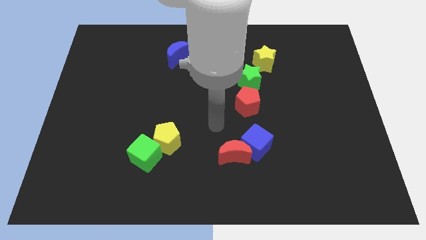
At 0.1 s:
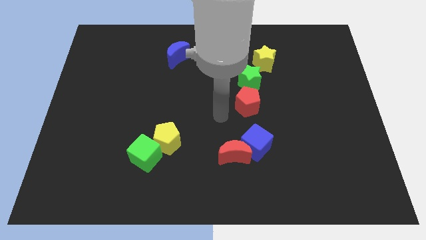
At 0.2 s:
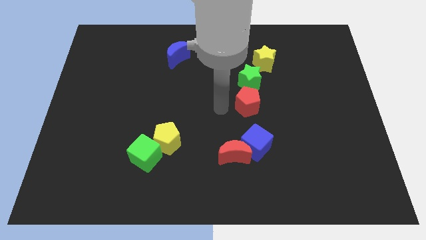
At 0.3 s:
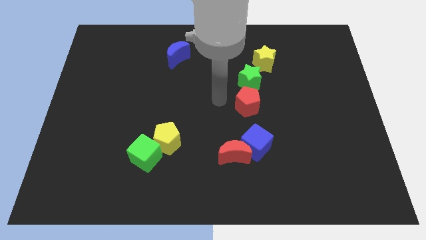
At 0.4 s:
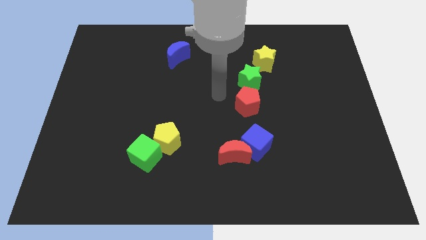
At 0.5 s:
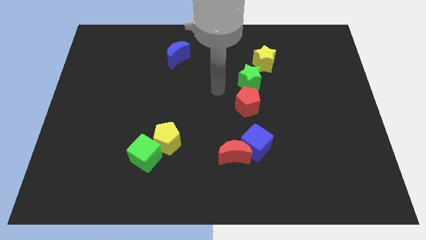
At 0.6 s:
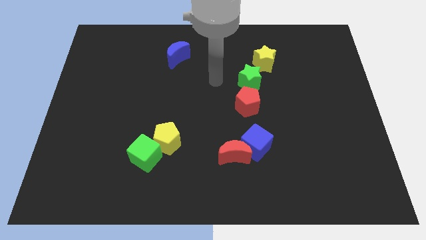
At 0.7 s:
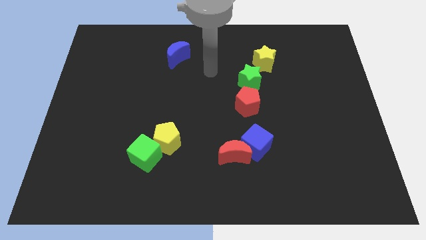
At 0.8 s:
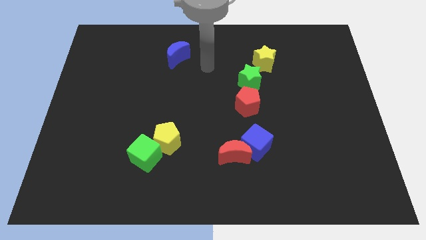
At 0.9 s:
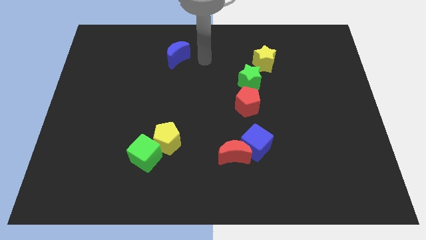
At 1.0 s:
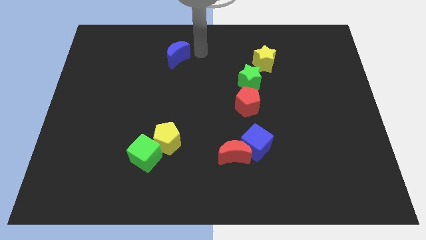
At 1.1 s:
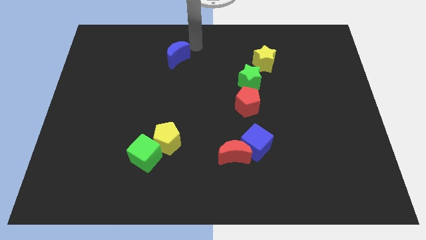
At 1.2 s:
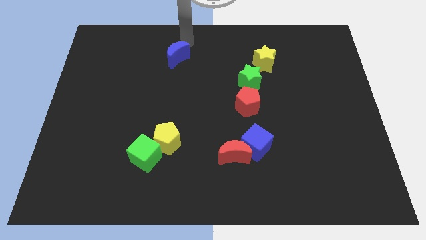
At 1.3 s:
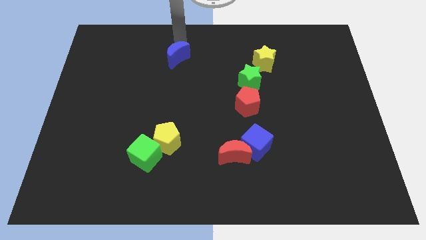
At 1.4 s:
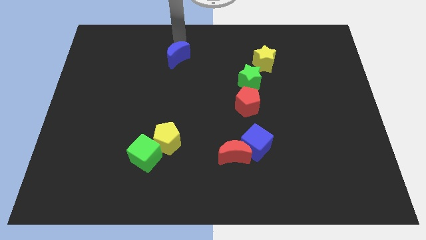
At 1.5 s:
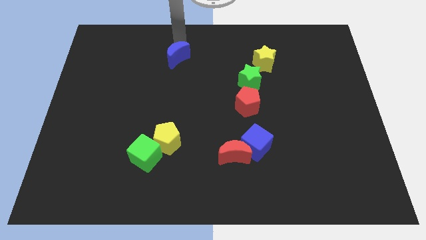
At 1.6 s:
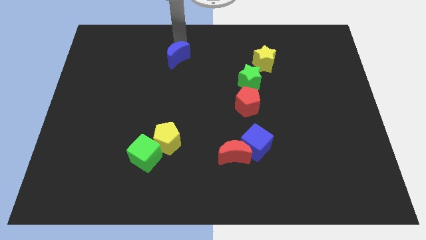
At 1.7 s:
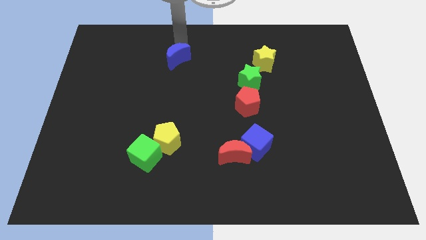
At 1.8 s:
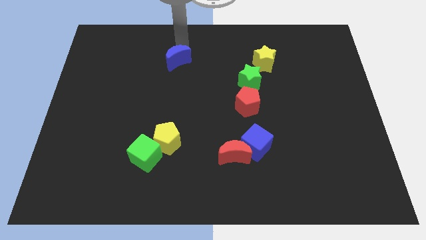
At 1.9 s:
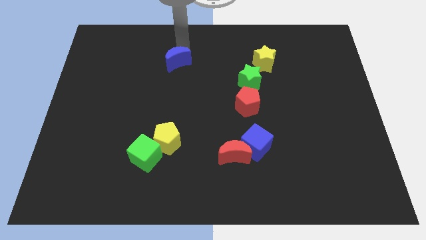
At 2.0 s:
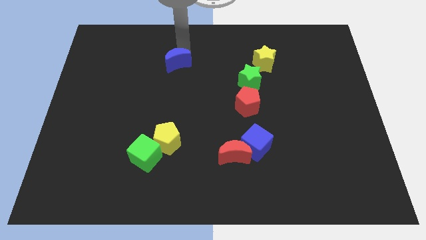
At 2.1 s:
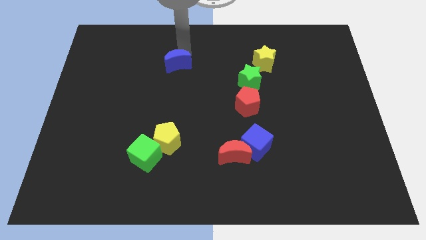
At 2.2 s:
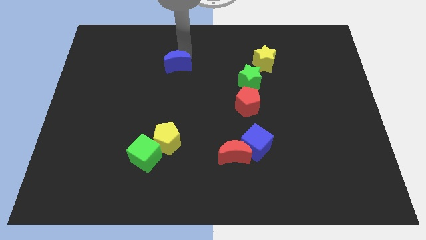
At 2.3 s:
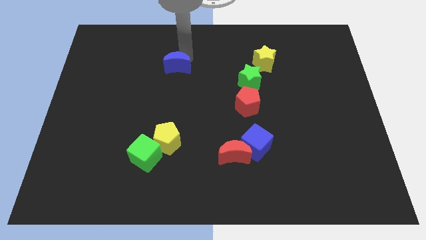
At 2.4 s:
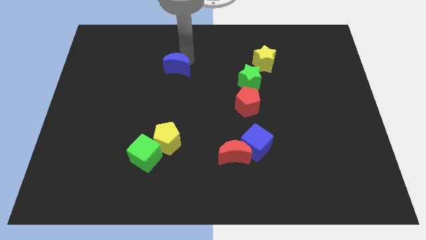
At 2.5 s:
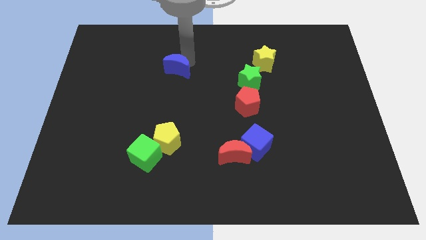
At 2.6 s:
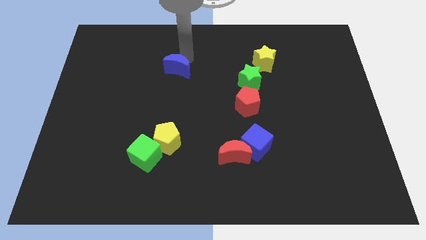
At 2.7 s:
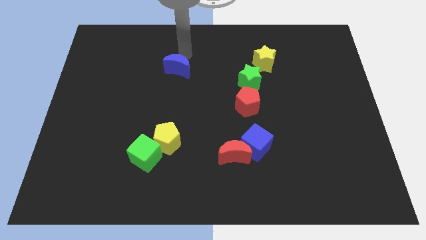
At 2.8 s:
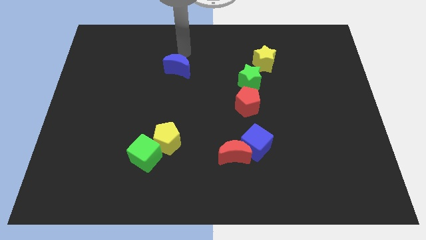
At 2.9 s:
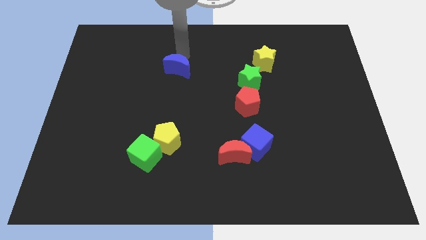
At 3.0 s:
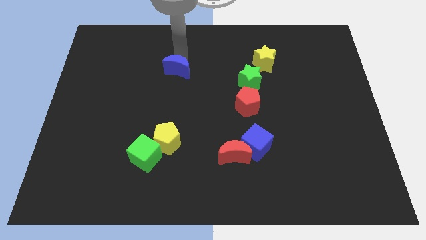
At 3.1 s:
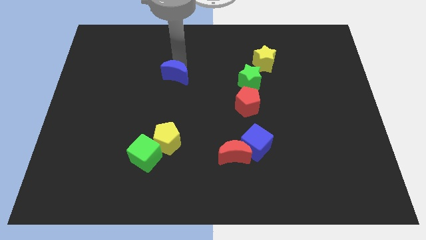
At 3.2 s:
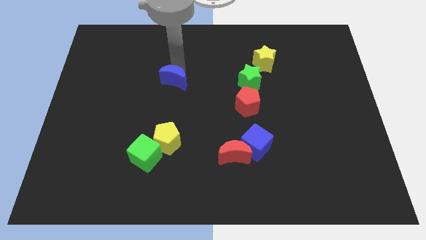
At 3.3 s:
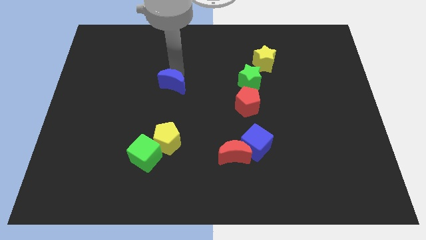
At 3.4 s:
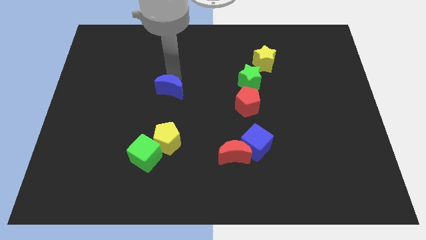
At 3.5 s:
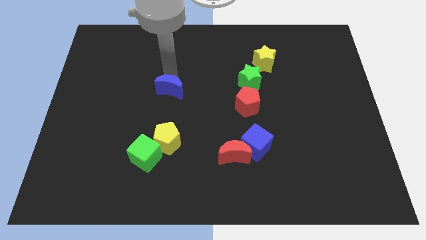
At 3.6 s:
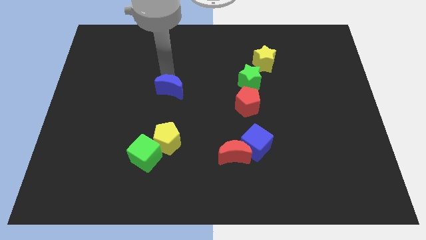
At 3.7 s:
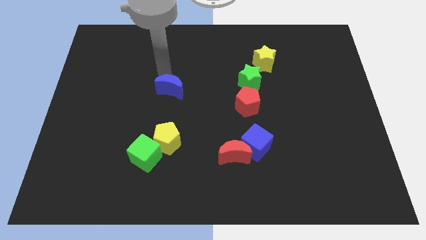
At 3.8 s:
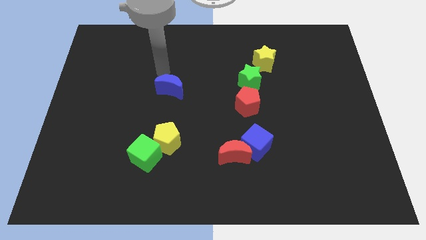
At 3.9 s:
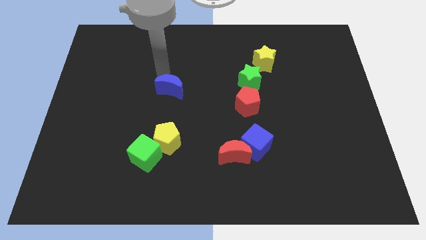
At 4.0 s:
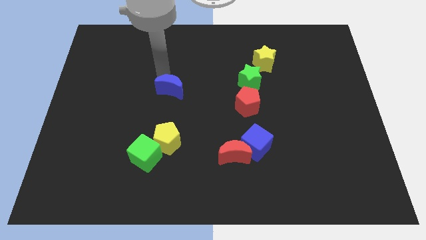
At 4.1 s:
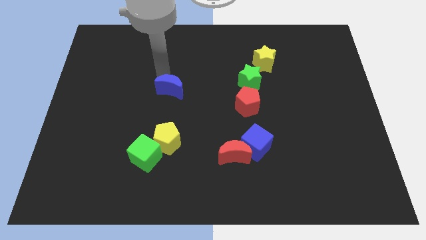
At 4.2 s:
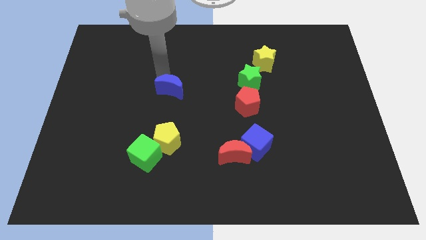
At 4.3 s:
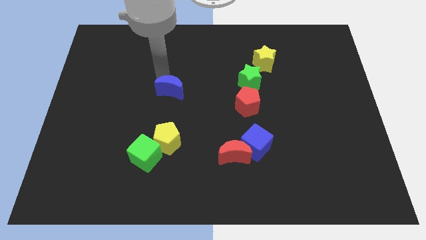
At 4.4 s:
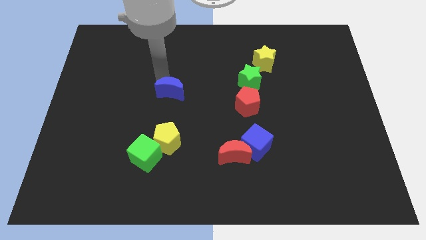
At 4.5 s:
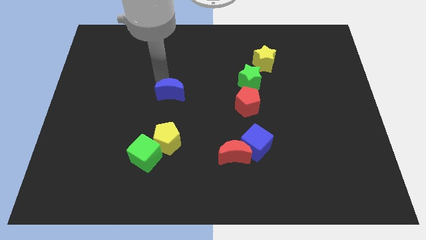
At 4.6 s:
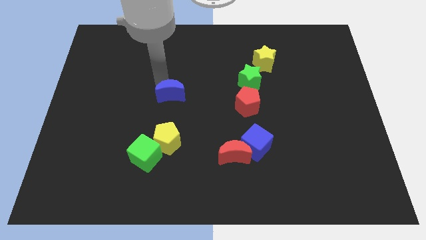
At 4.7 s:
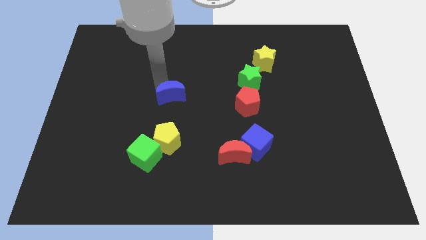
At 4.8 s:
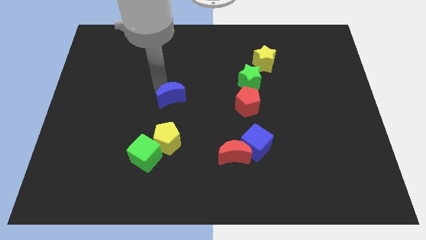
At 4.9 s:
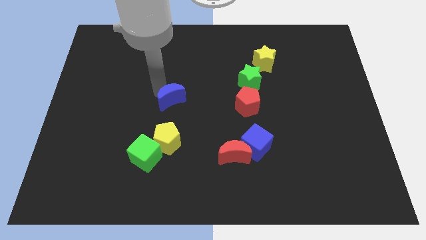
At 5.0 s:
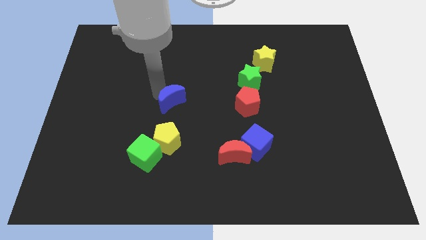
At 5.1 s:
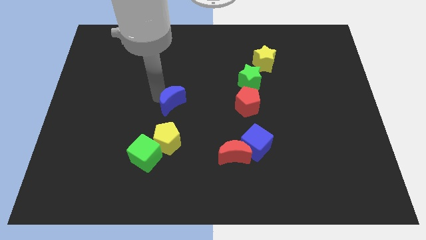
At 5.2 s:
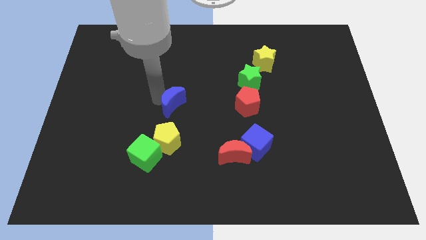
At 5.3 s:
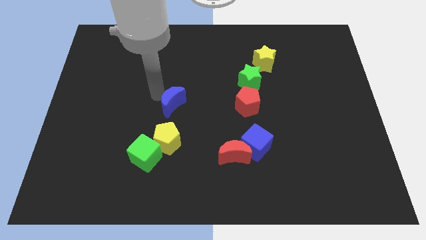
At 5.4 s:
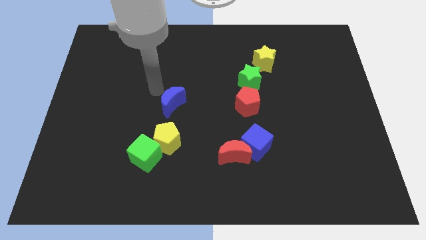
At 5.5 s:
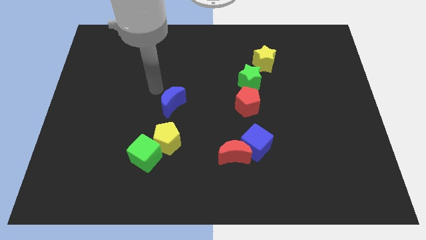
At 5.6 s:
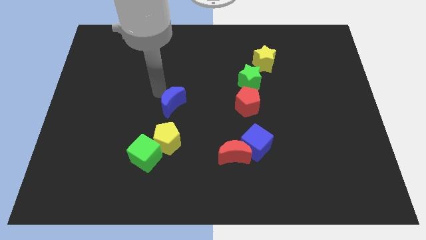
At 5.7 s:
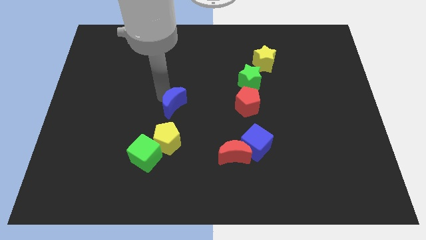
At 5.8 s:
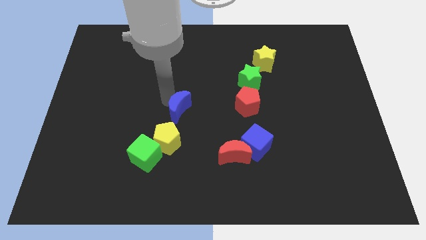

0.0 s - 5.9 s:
push the blue moon diagonally up and to the right of the yellow pentagon

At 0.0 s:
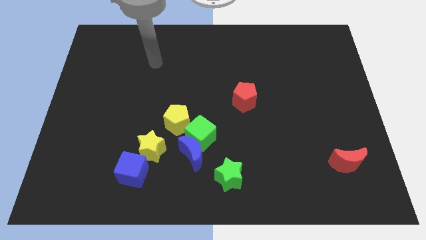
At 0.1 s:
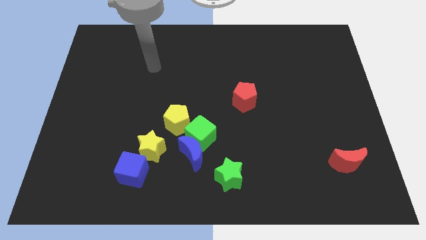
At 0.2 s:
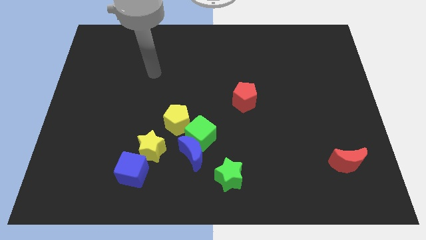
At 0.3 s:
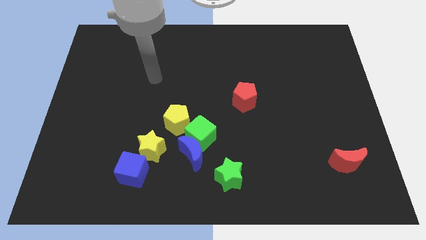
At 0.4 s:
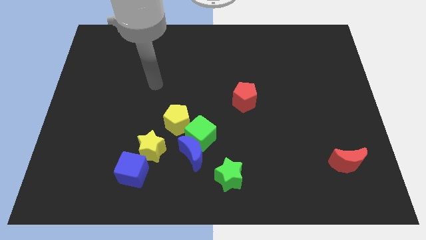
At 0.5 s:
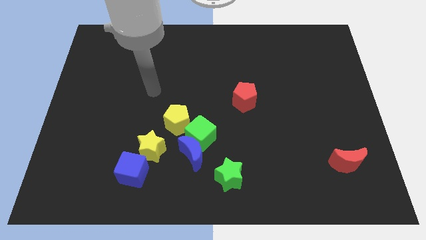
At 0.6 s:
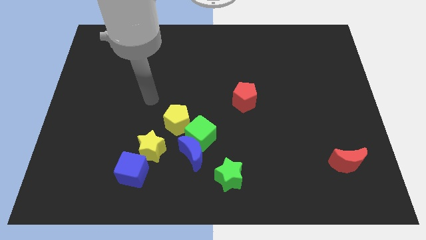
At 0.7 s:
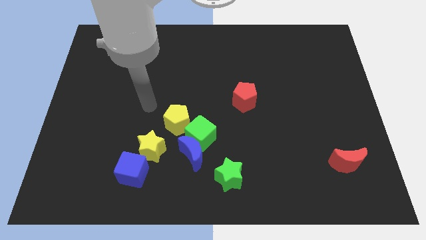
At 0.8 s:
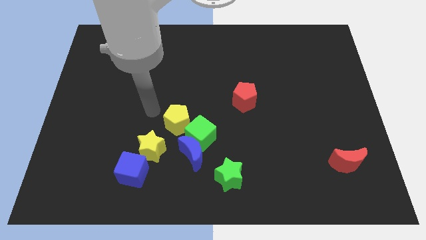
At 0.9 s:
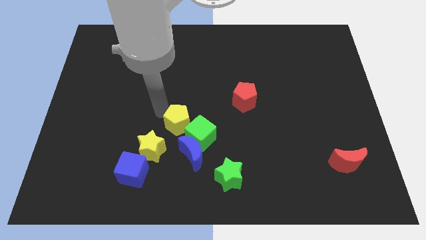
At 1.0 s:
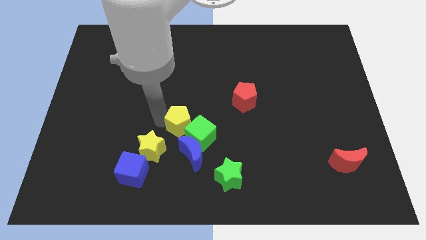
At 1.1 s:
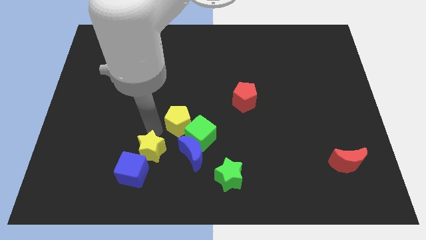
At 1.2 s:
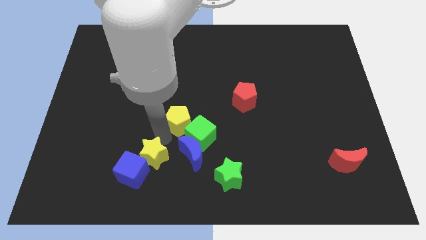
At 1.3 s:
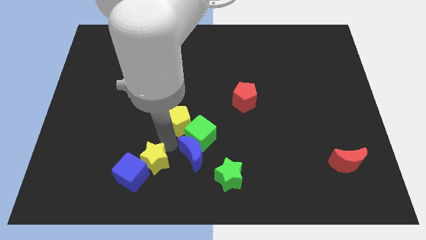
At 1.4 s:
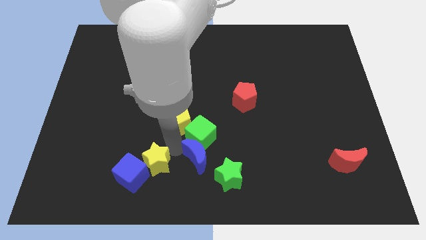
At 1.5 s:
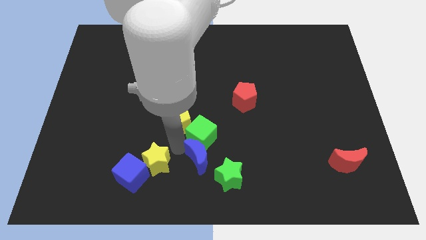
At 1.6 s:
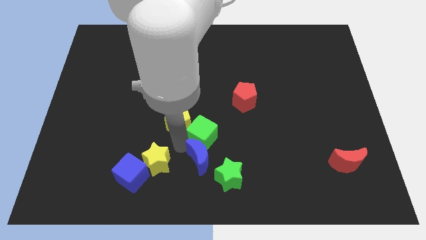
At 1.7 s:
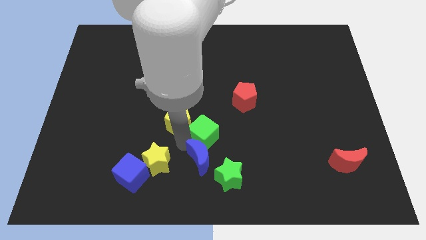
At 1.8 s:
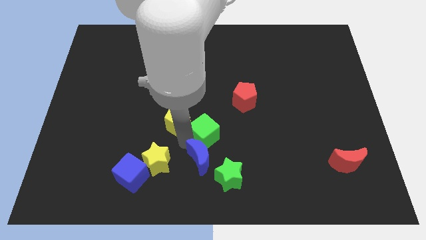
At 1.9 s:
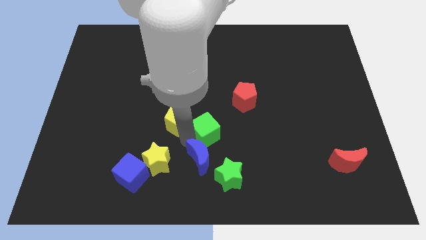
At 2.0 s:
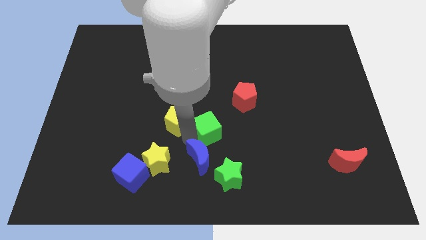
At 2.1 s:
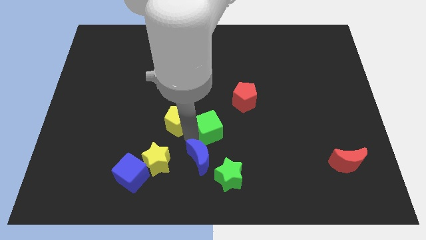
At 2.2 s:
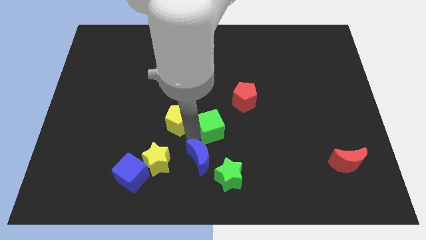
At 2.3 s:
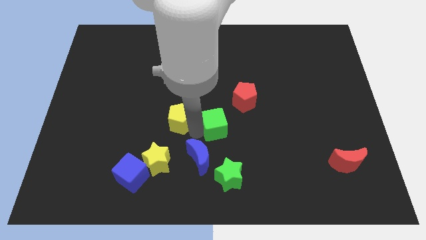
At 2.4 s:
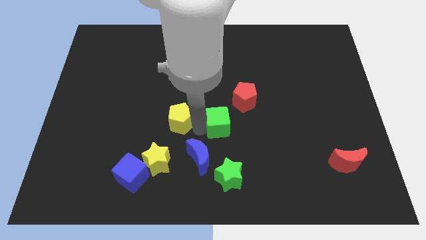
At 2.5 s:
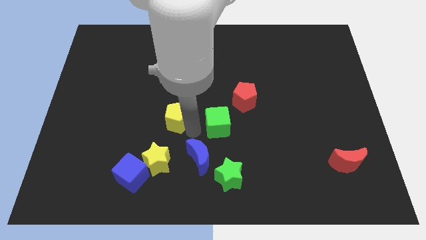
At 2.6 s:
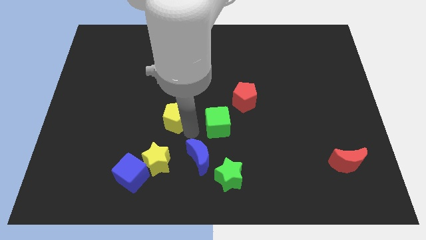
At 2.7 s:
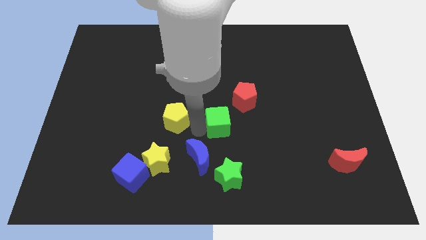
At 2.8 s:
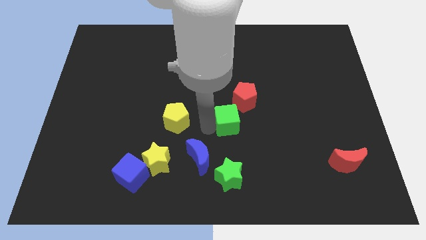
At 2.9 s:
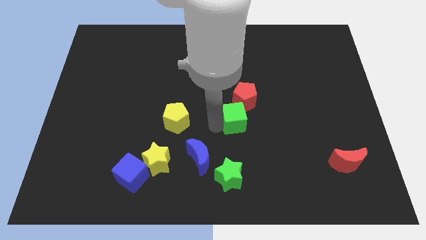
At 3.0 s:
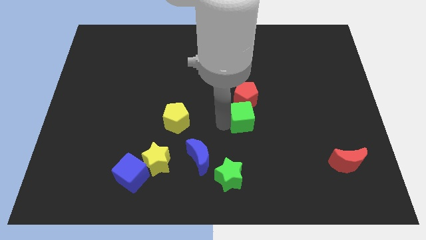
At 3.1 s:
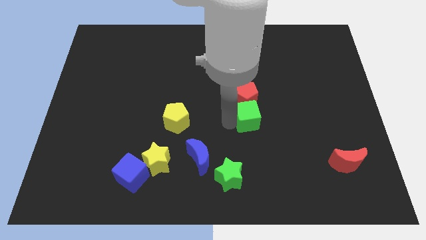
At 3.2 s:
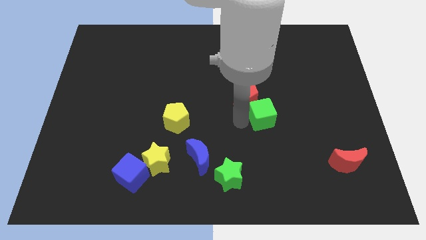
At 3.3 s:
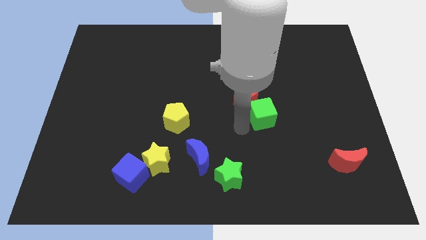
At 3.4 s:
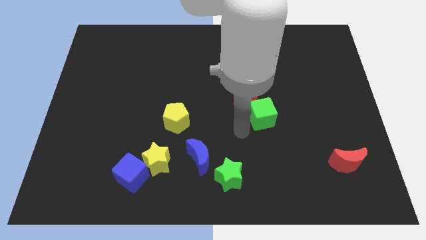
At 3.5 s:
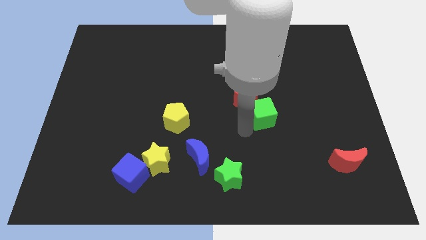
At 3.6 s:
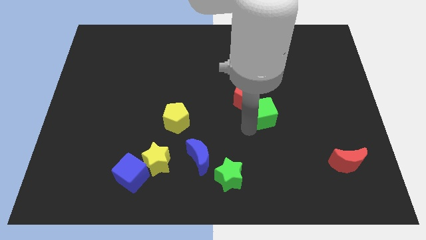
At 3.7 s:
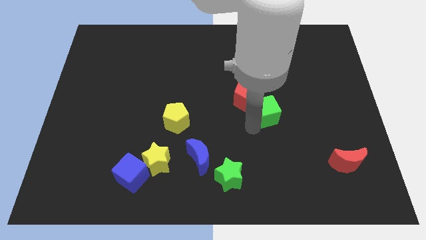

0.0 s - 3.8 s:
slide the green cube to the right of the red pentagon
